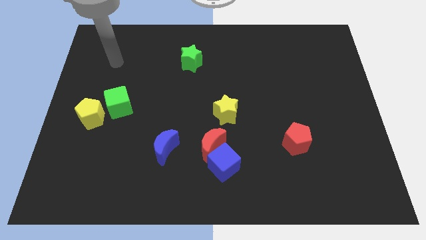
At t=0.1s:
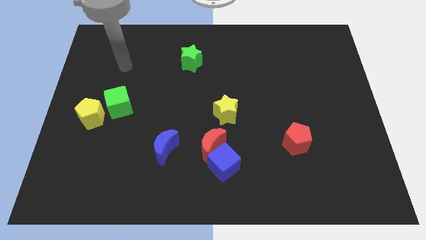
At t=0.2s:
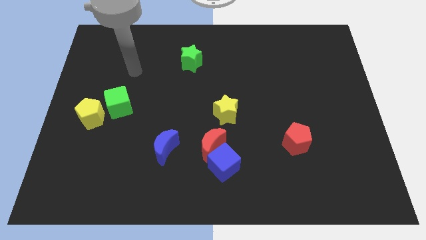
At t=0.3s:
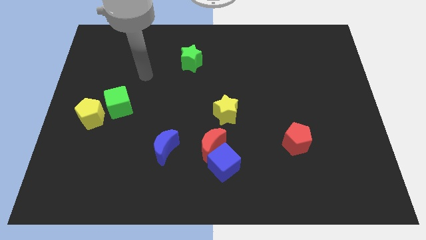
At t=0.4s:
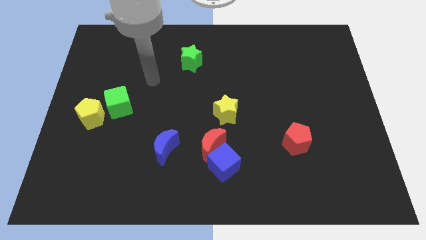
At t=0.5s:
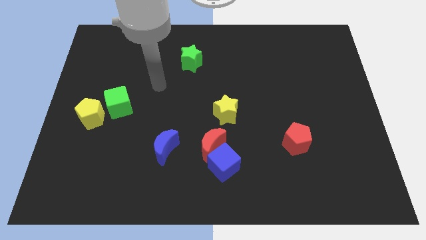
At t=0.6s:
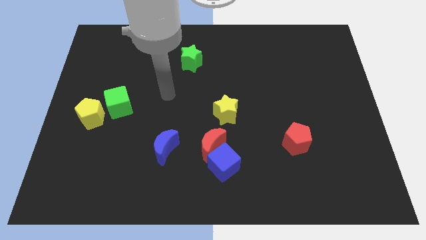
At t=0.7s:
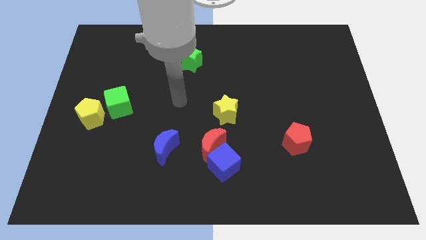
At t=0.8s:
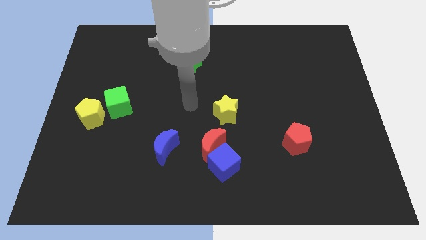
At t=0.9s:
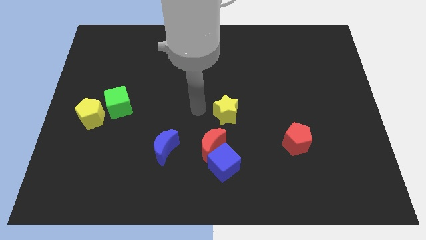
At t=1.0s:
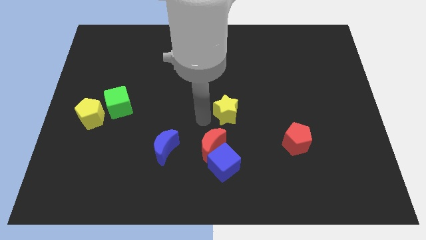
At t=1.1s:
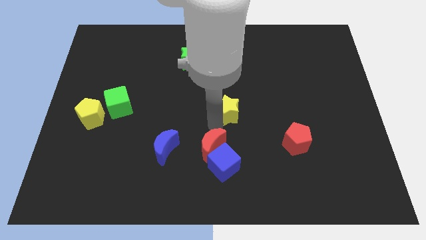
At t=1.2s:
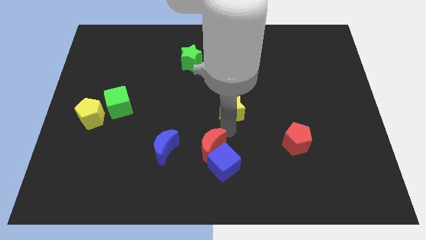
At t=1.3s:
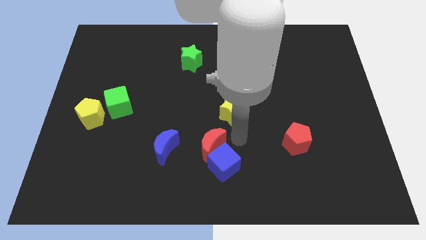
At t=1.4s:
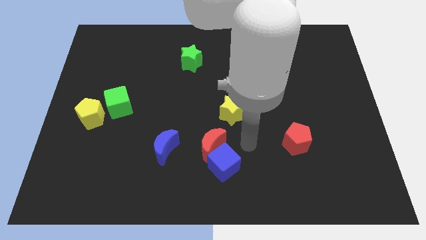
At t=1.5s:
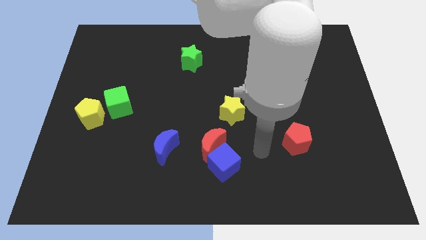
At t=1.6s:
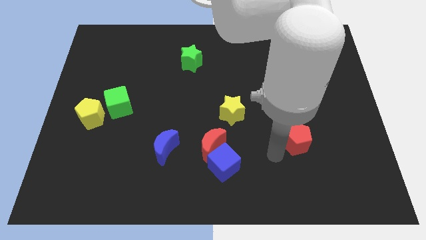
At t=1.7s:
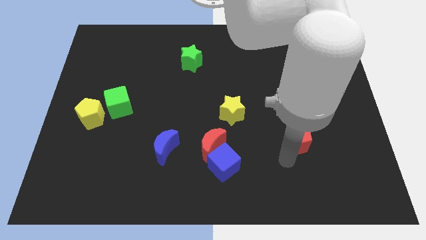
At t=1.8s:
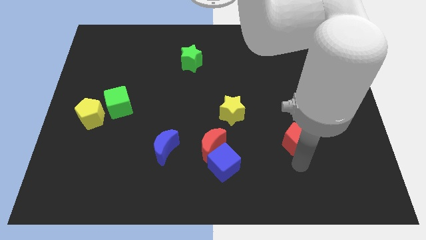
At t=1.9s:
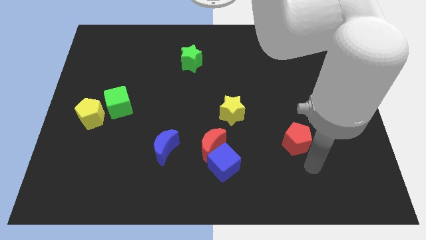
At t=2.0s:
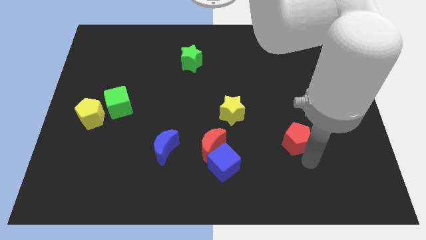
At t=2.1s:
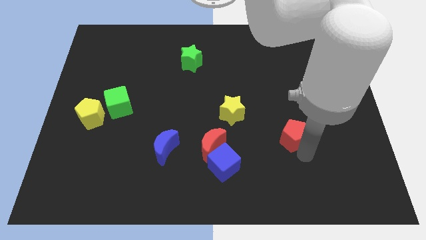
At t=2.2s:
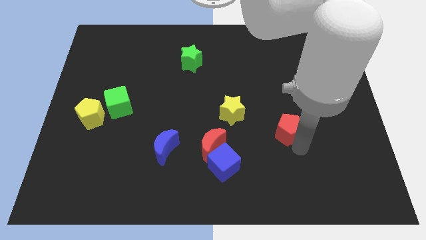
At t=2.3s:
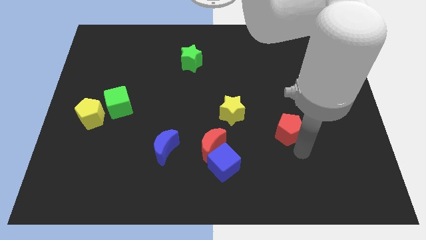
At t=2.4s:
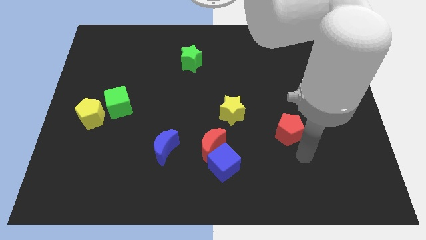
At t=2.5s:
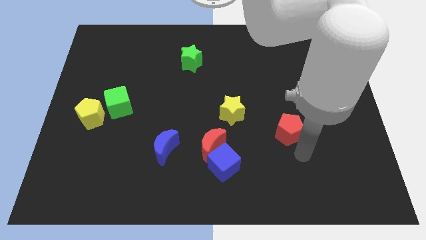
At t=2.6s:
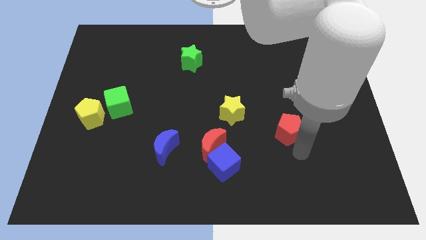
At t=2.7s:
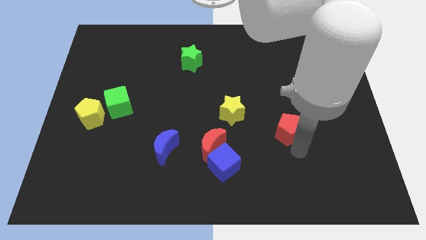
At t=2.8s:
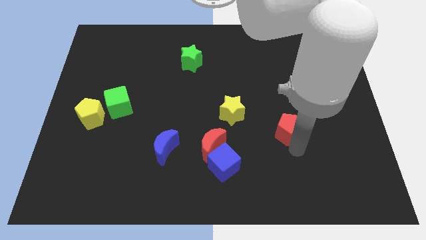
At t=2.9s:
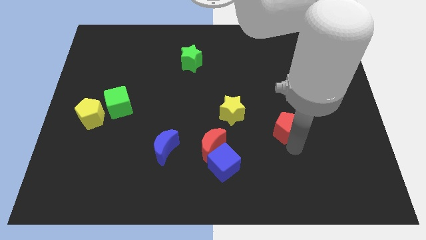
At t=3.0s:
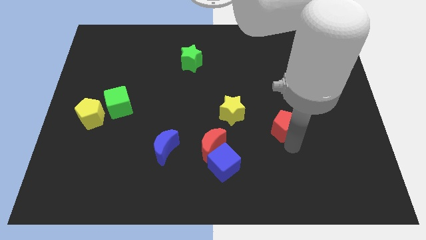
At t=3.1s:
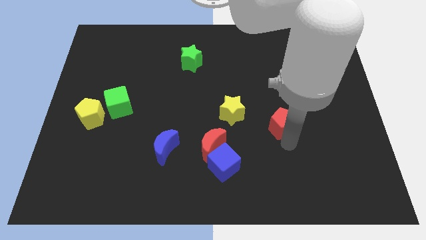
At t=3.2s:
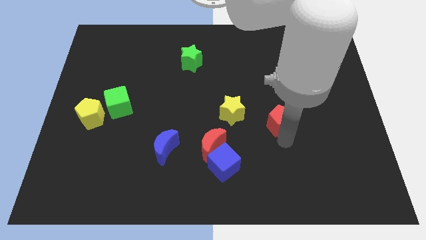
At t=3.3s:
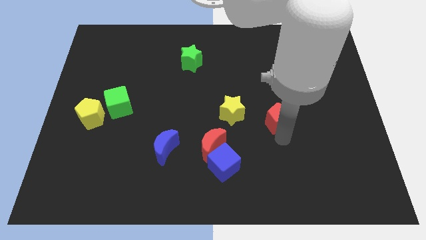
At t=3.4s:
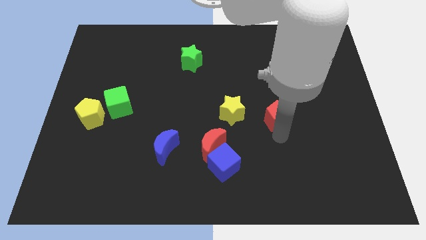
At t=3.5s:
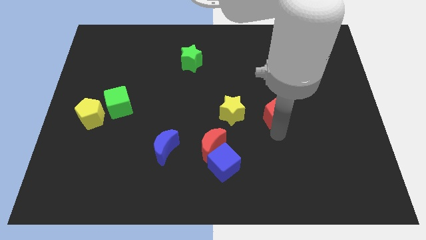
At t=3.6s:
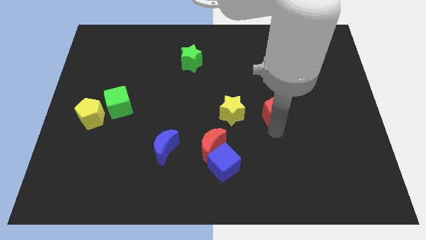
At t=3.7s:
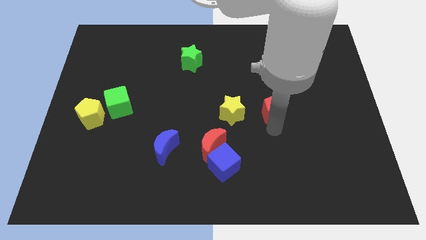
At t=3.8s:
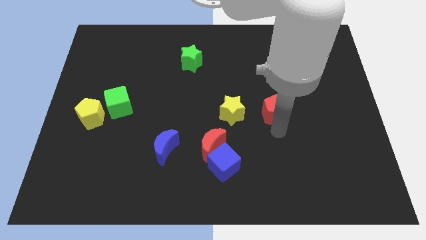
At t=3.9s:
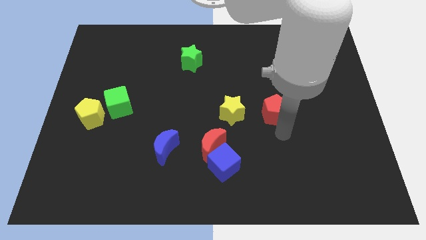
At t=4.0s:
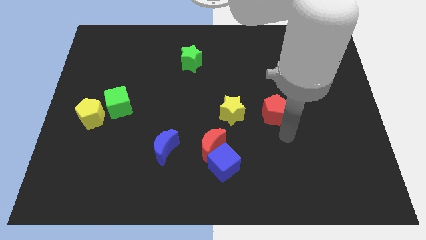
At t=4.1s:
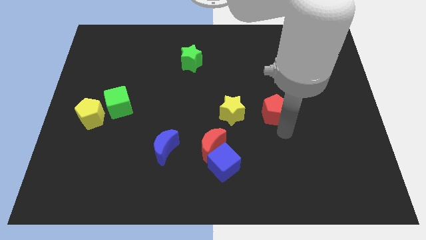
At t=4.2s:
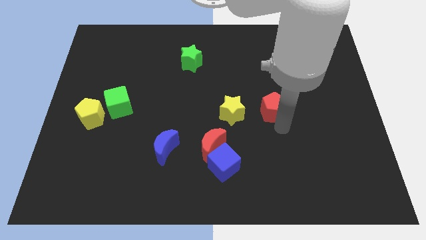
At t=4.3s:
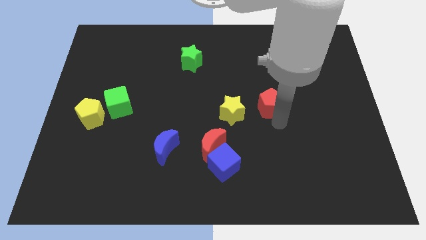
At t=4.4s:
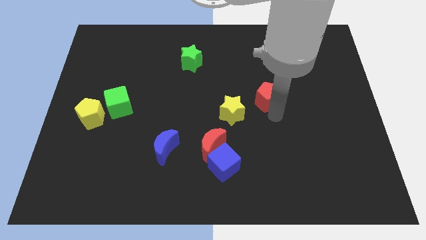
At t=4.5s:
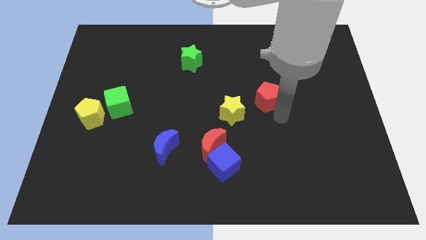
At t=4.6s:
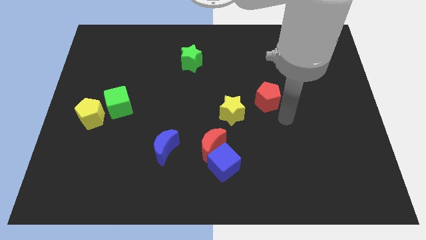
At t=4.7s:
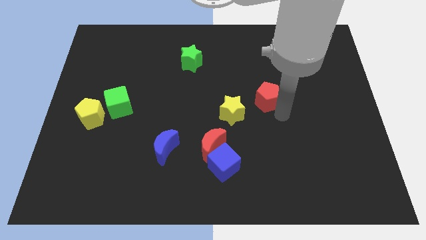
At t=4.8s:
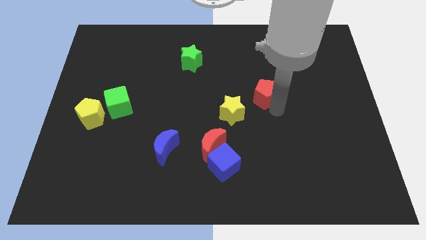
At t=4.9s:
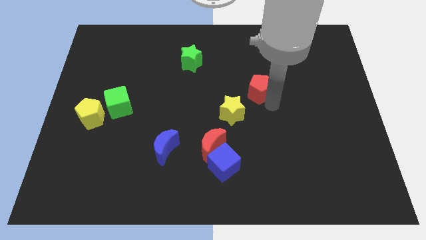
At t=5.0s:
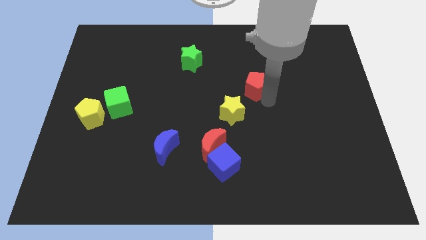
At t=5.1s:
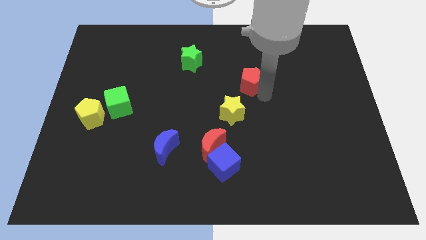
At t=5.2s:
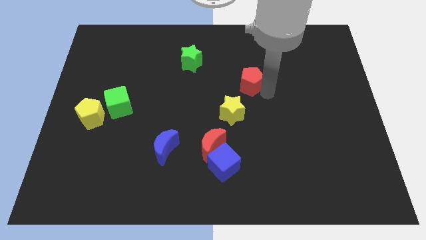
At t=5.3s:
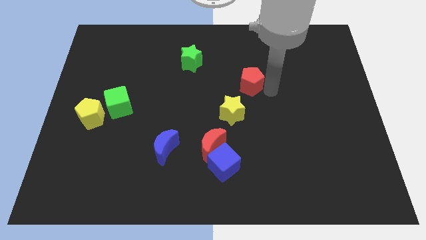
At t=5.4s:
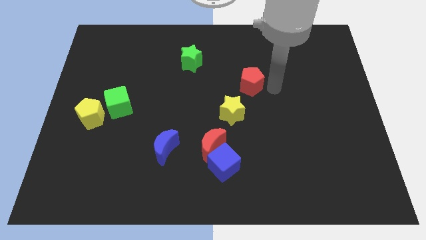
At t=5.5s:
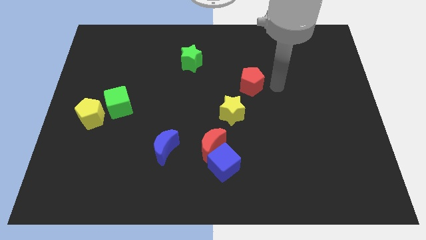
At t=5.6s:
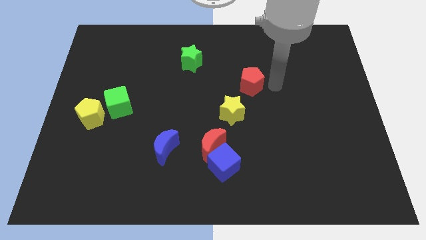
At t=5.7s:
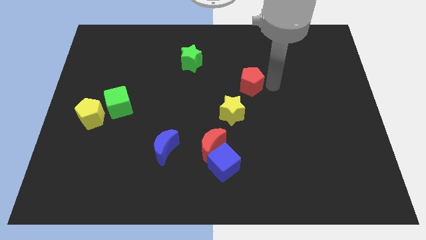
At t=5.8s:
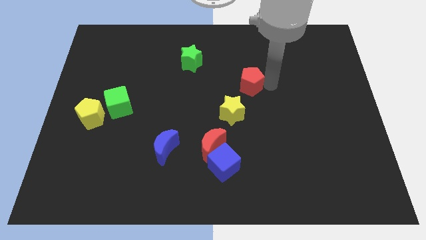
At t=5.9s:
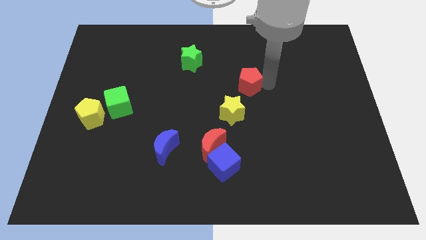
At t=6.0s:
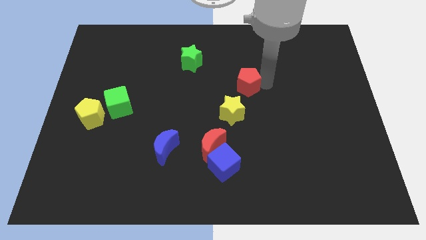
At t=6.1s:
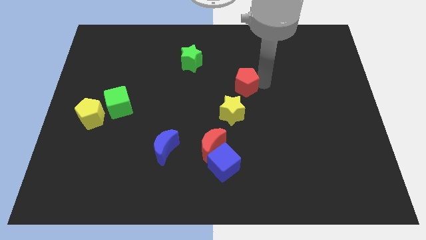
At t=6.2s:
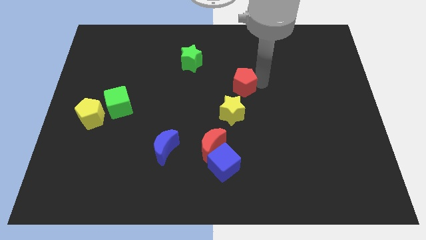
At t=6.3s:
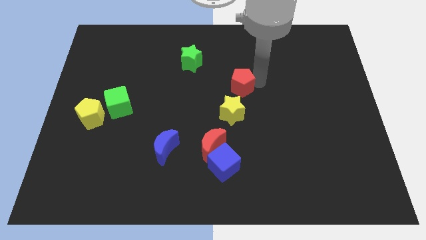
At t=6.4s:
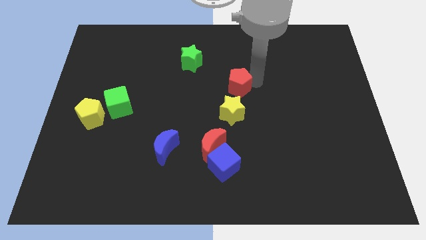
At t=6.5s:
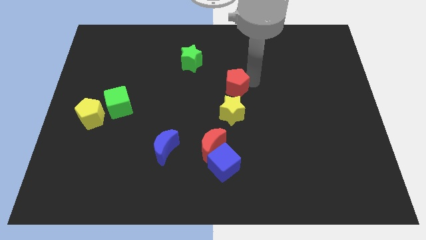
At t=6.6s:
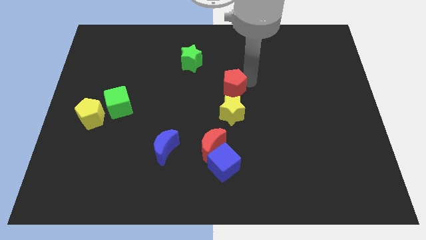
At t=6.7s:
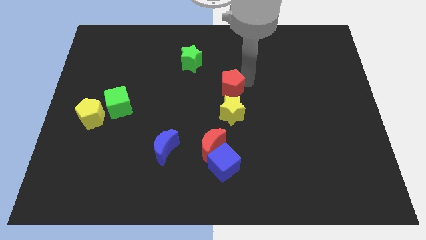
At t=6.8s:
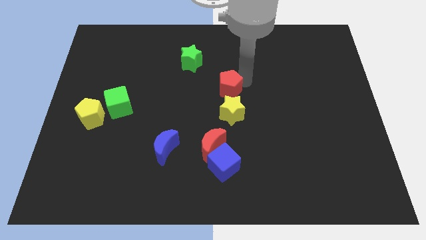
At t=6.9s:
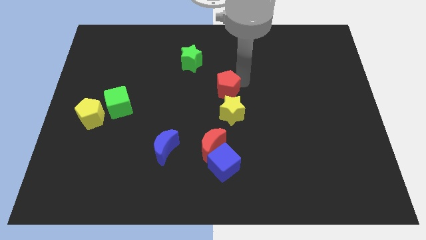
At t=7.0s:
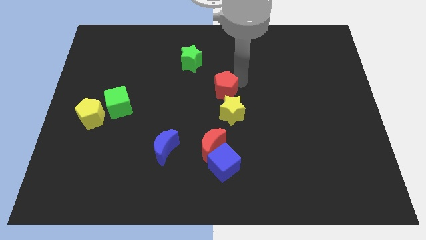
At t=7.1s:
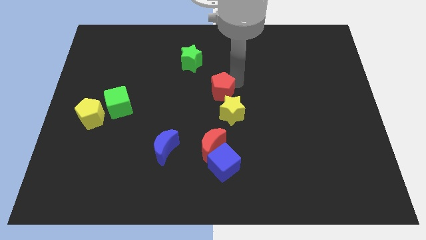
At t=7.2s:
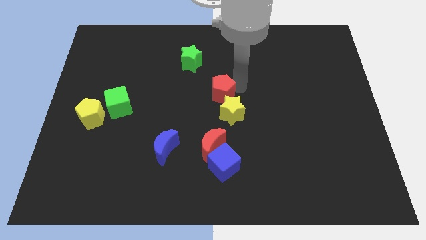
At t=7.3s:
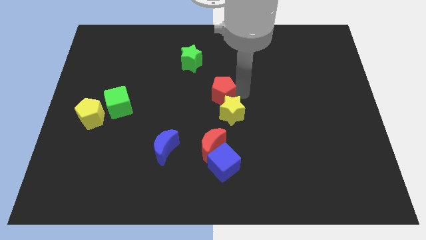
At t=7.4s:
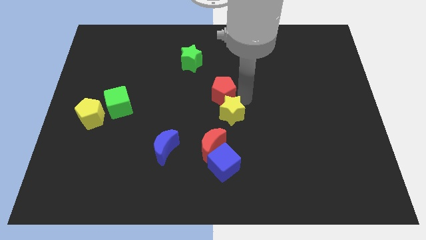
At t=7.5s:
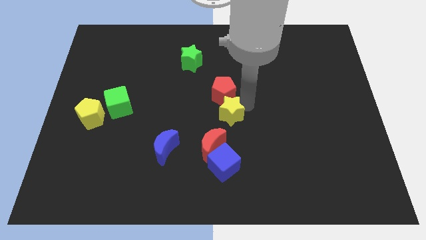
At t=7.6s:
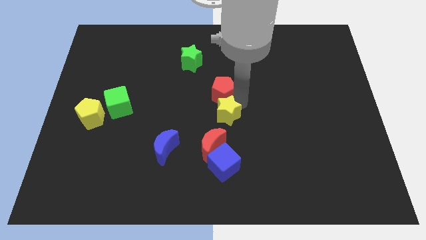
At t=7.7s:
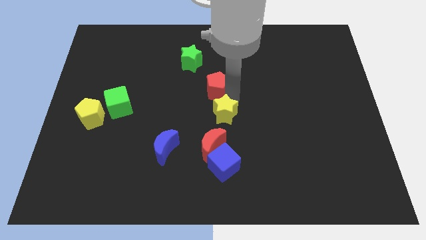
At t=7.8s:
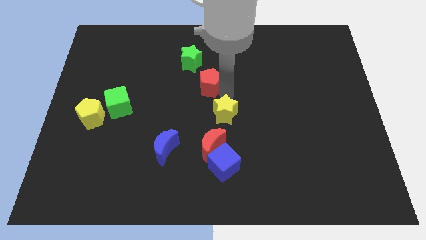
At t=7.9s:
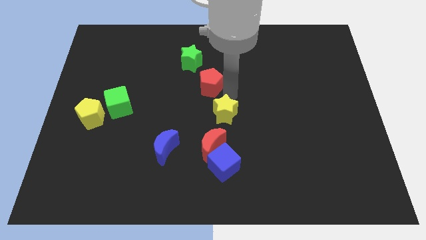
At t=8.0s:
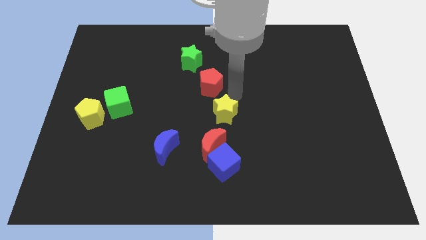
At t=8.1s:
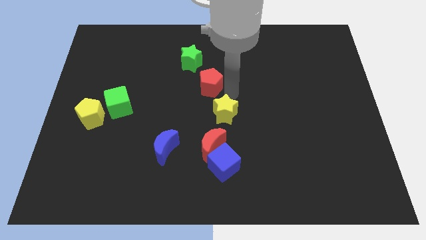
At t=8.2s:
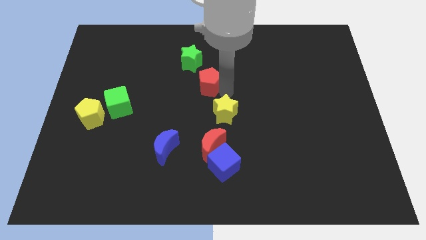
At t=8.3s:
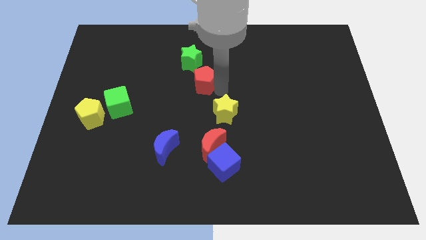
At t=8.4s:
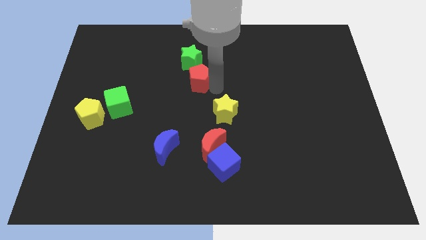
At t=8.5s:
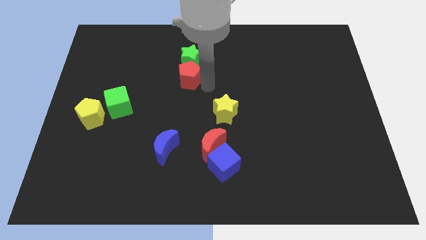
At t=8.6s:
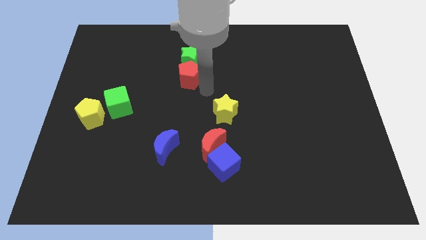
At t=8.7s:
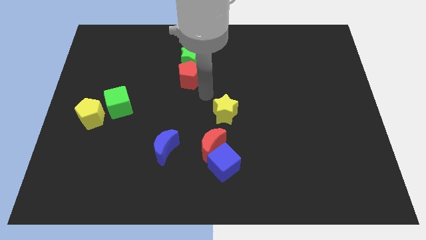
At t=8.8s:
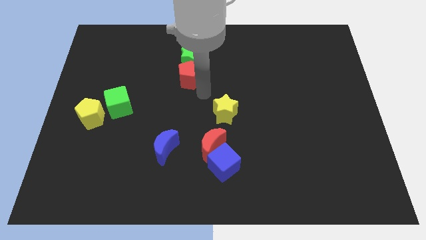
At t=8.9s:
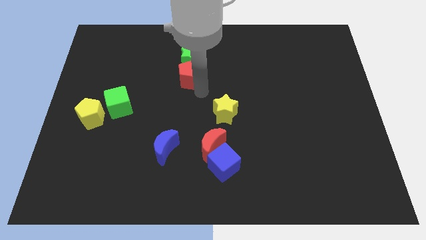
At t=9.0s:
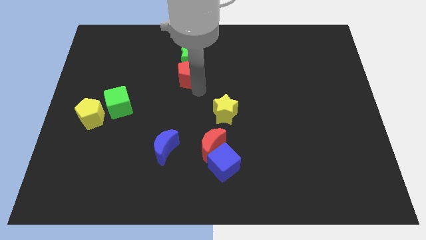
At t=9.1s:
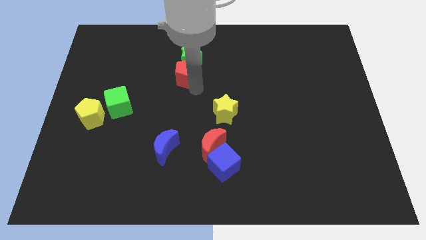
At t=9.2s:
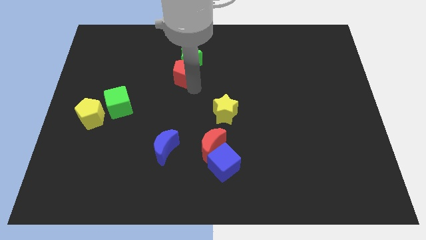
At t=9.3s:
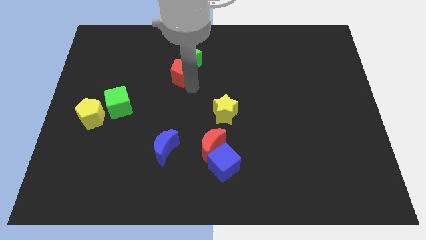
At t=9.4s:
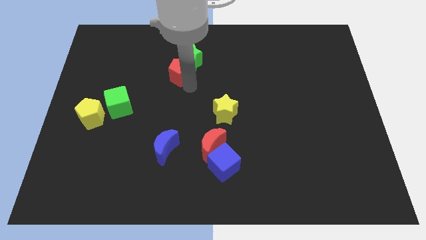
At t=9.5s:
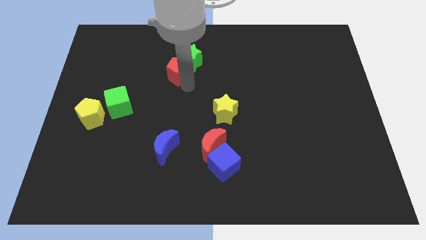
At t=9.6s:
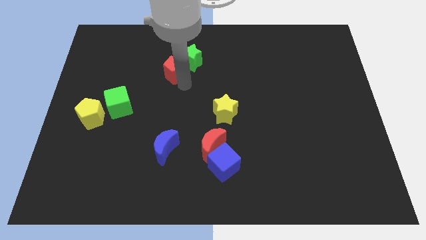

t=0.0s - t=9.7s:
move the red pentagon left of the green star
